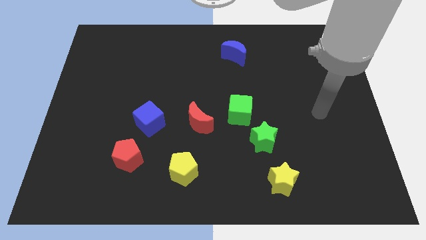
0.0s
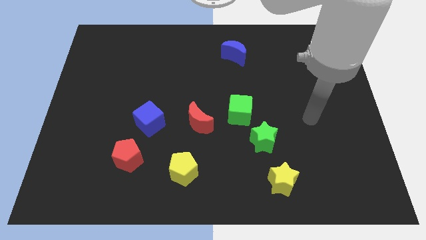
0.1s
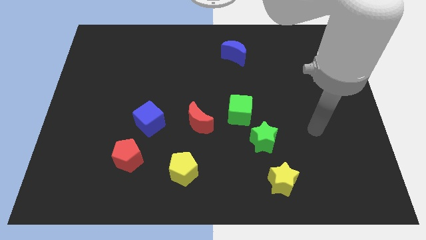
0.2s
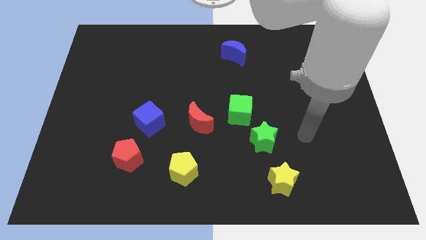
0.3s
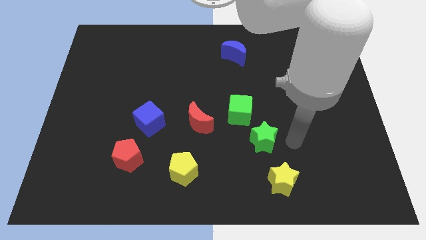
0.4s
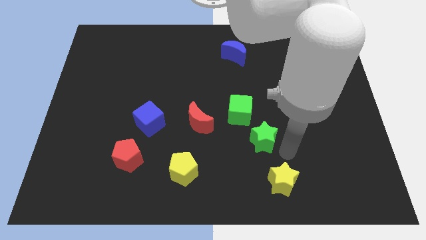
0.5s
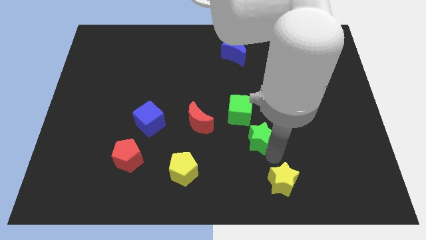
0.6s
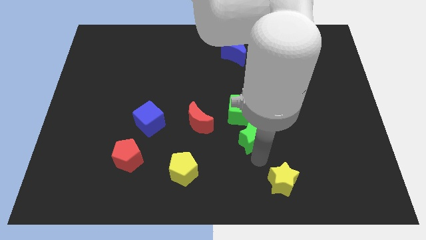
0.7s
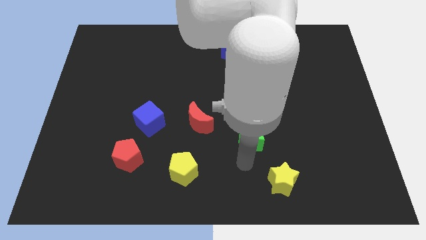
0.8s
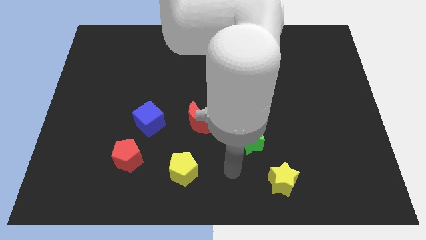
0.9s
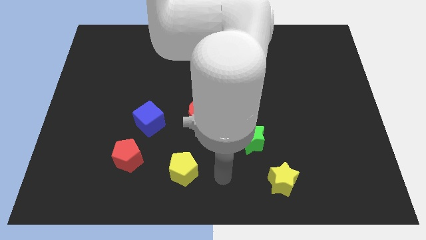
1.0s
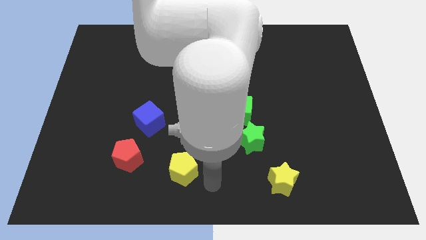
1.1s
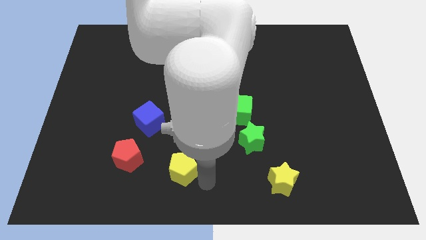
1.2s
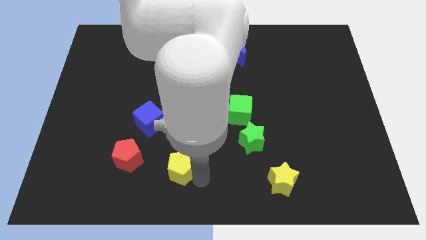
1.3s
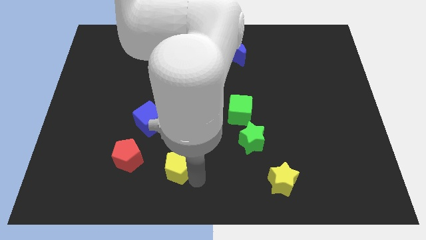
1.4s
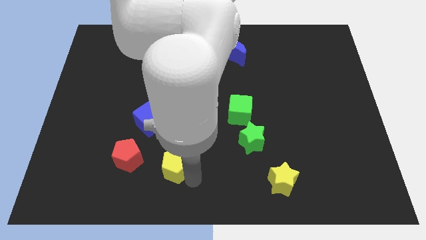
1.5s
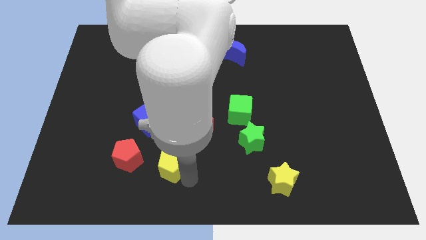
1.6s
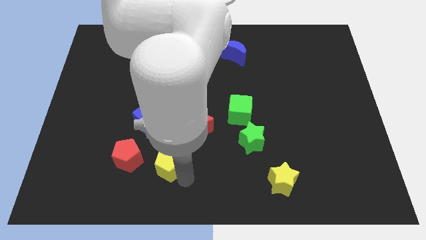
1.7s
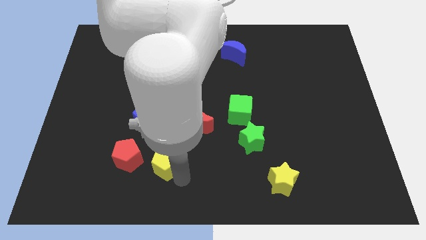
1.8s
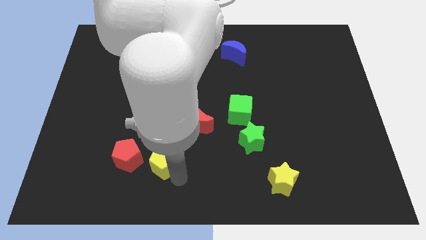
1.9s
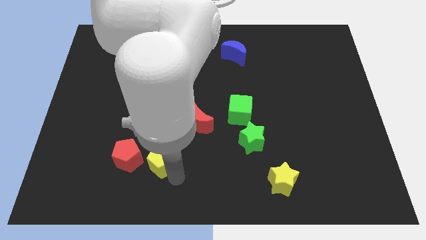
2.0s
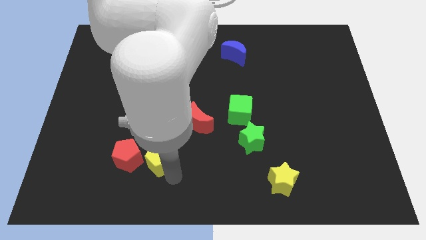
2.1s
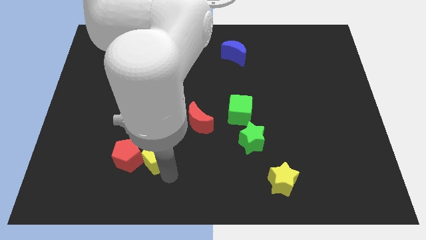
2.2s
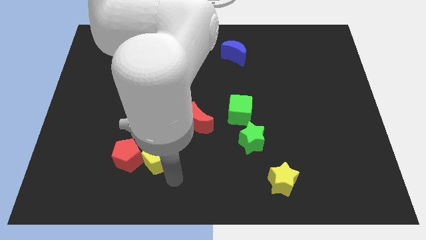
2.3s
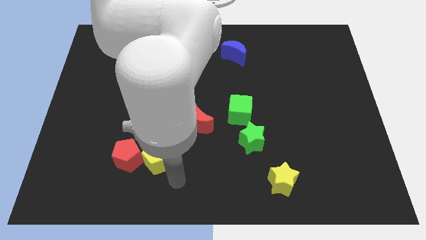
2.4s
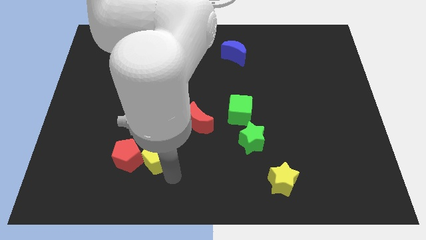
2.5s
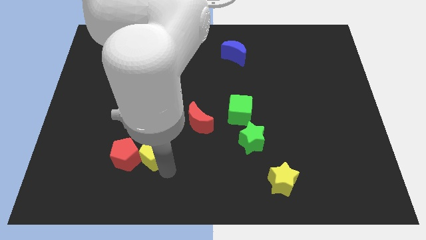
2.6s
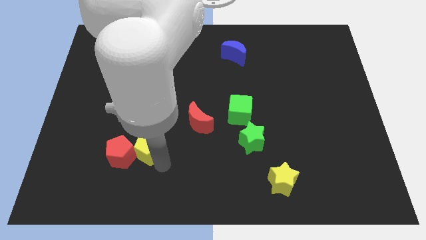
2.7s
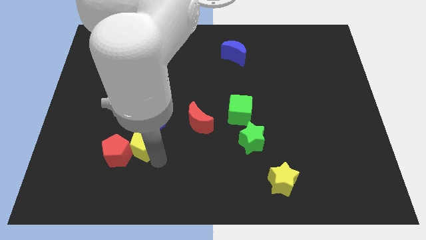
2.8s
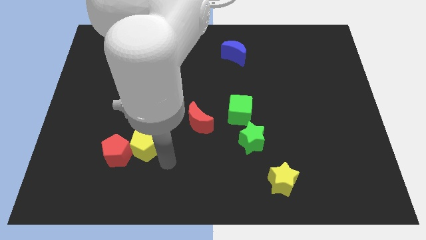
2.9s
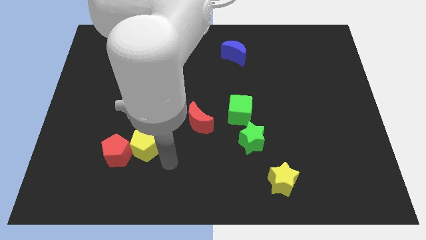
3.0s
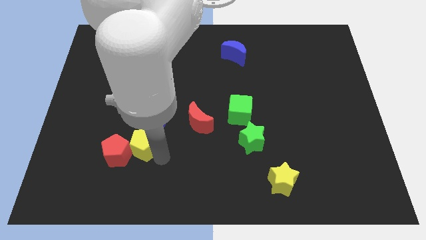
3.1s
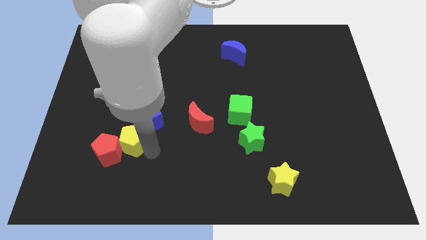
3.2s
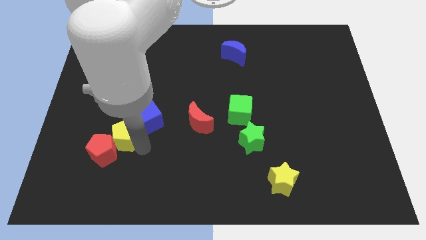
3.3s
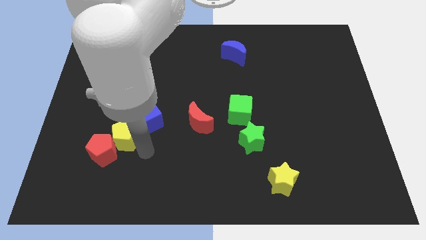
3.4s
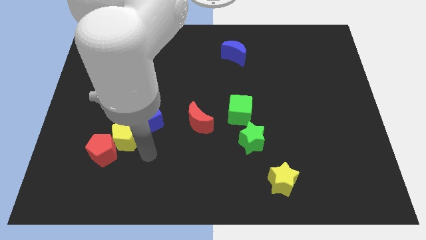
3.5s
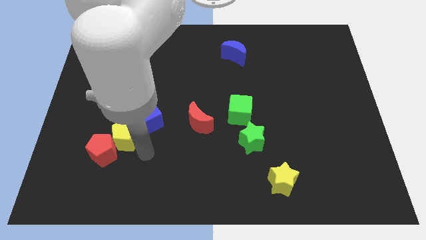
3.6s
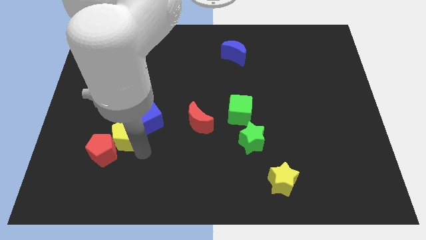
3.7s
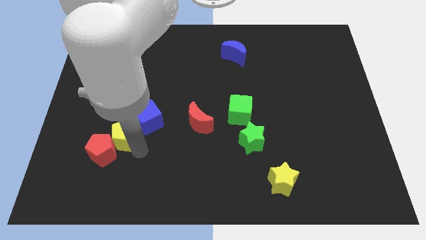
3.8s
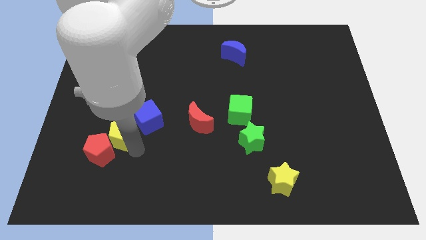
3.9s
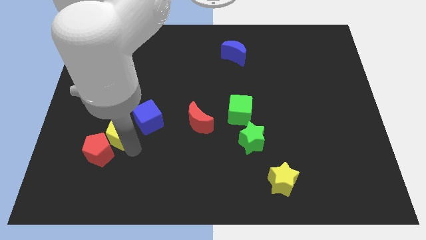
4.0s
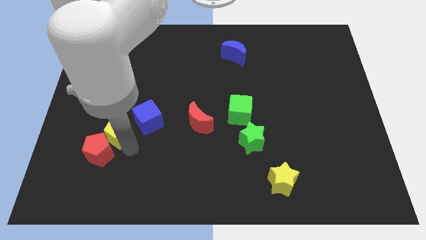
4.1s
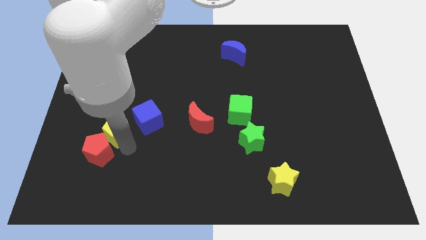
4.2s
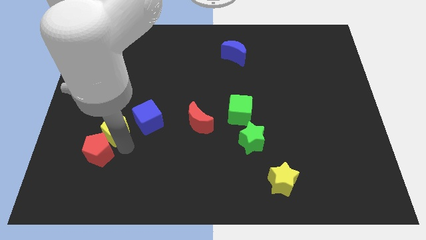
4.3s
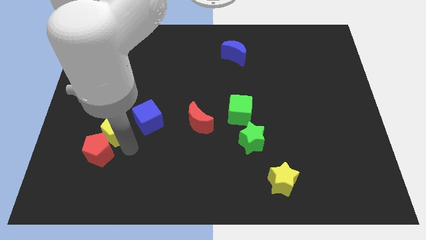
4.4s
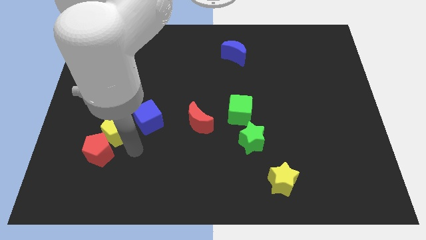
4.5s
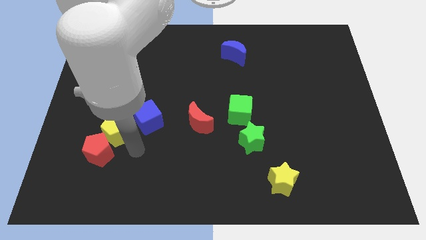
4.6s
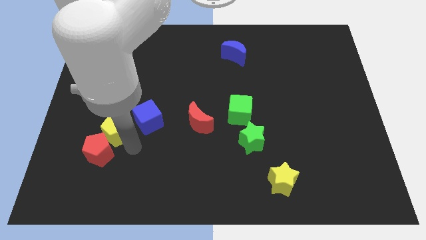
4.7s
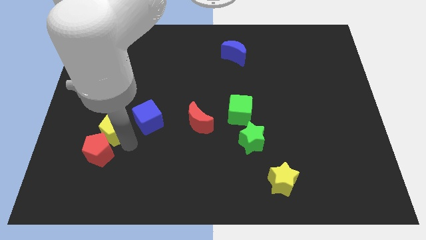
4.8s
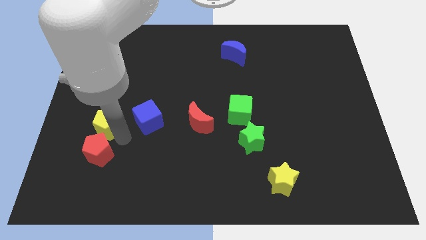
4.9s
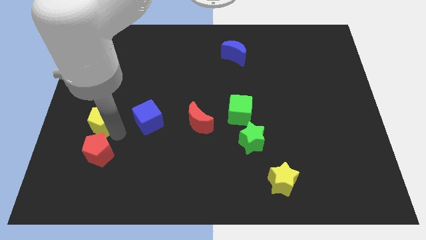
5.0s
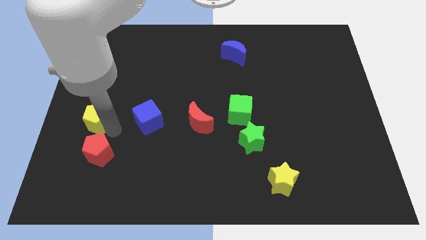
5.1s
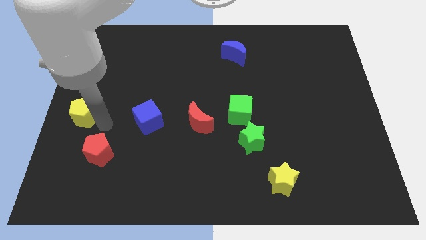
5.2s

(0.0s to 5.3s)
push the yellow pentagon to the left side of the board
